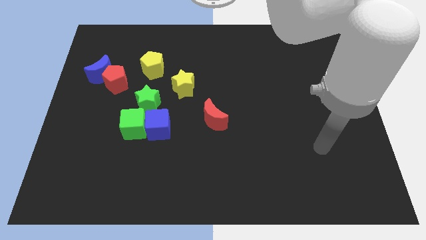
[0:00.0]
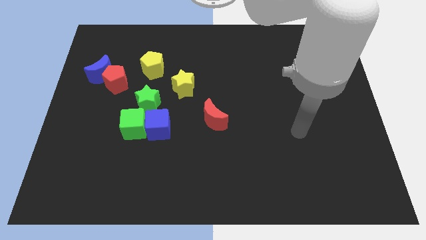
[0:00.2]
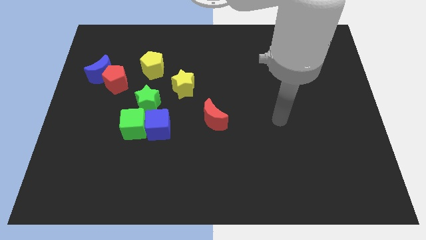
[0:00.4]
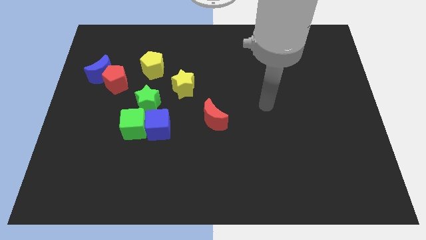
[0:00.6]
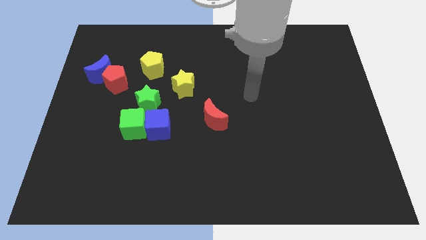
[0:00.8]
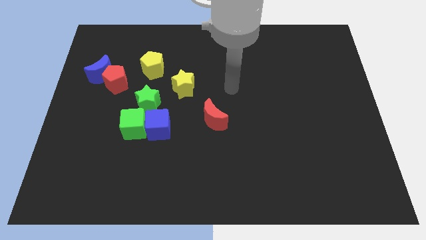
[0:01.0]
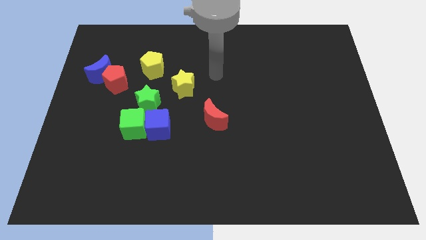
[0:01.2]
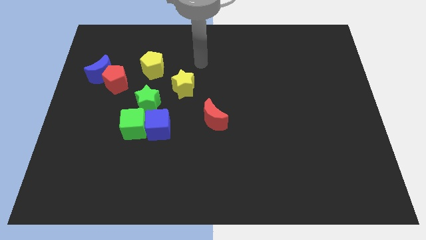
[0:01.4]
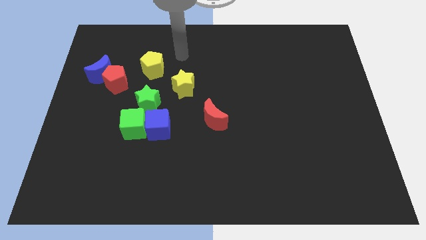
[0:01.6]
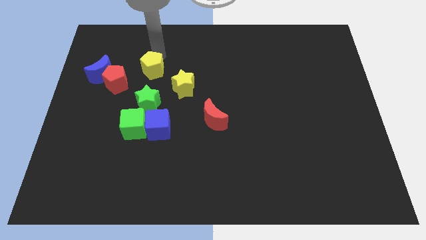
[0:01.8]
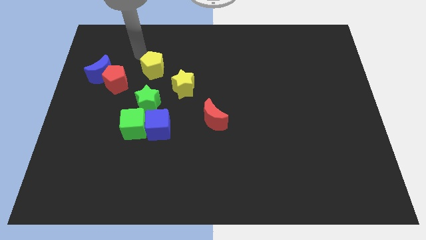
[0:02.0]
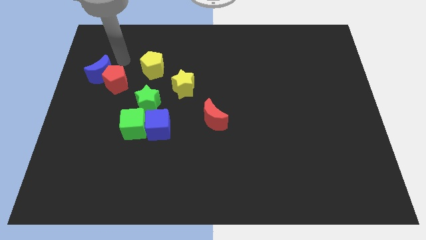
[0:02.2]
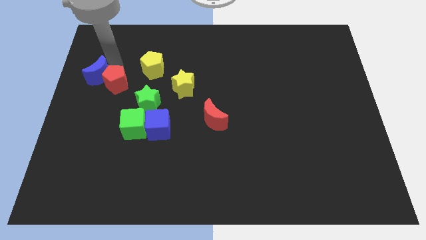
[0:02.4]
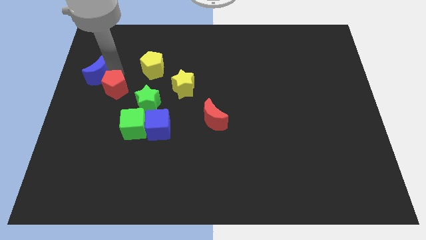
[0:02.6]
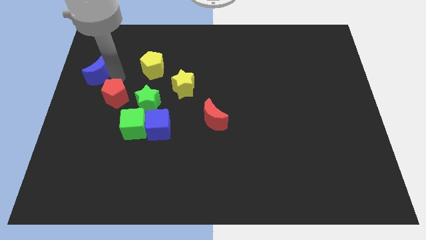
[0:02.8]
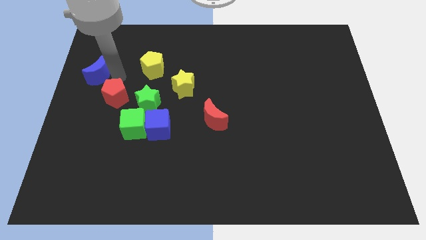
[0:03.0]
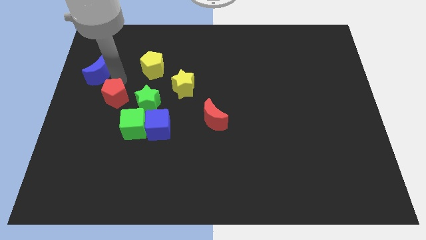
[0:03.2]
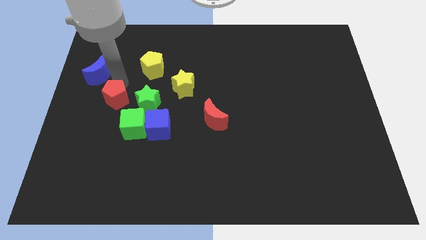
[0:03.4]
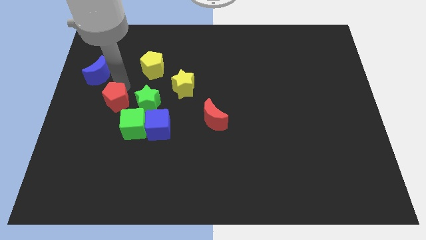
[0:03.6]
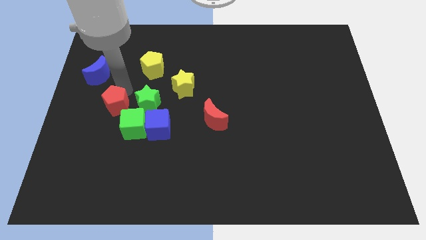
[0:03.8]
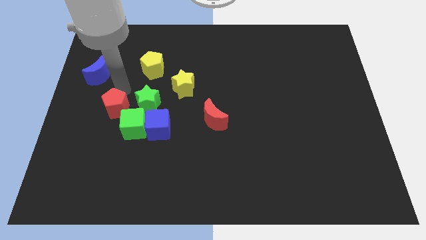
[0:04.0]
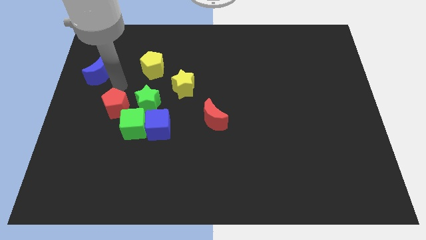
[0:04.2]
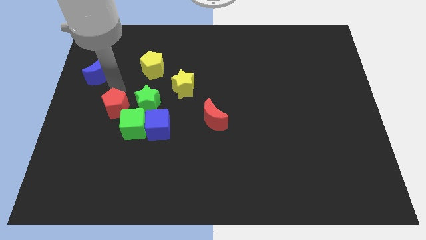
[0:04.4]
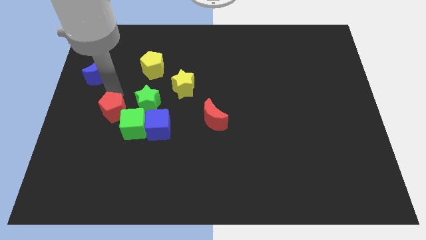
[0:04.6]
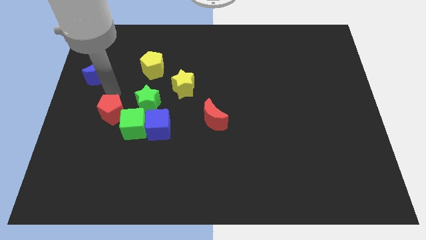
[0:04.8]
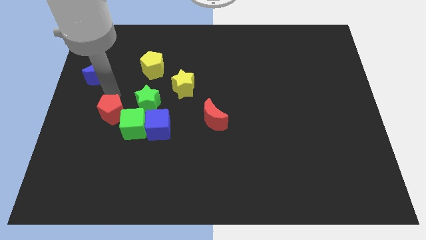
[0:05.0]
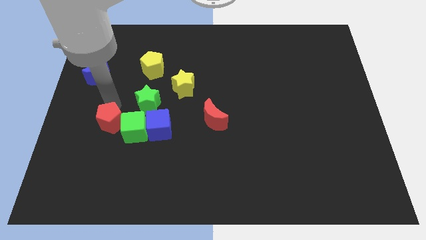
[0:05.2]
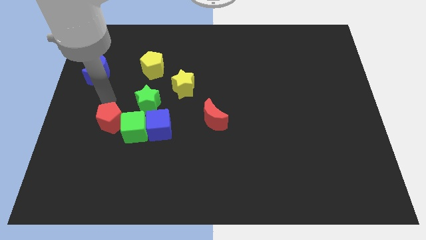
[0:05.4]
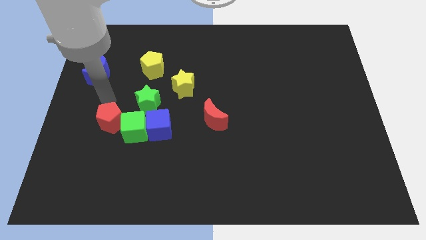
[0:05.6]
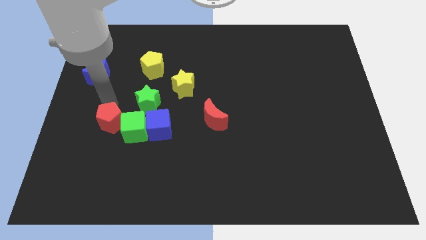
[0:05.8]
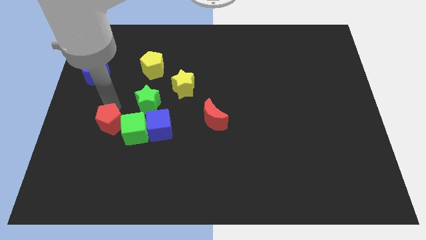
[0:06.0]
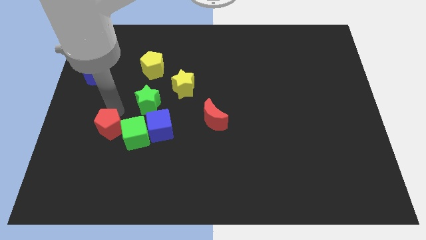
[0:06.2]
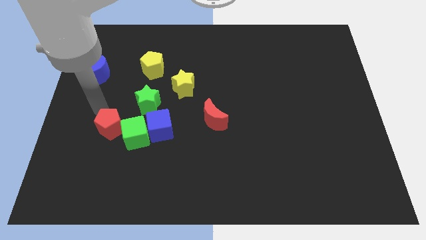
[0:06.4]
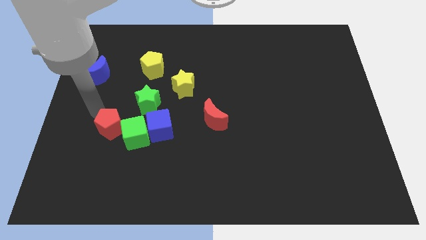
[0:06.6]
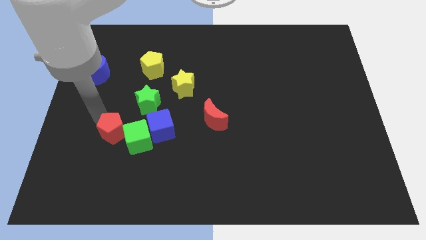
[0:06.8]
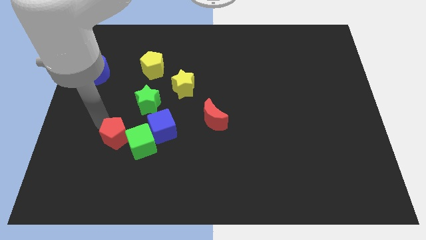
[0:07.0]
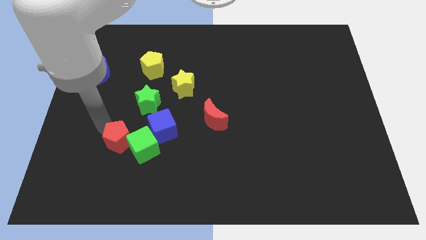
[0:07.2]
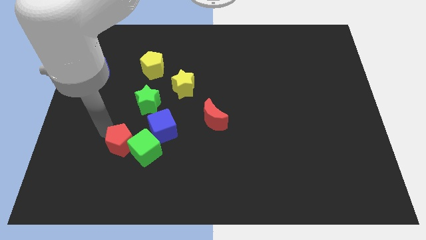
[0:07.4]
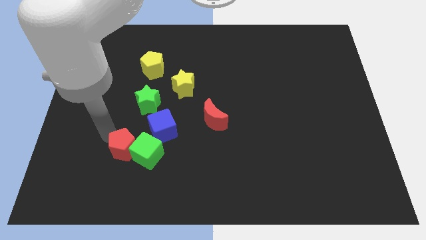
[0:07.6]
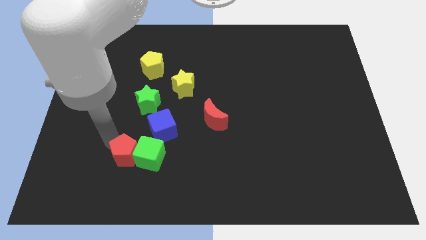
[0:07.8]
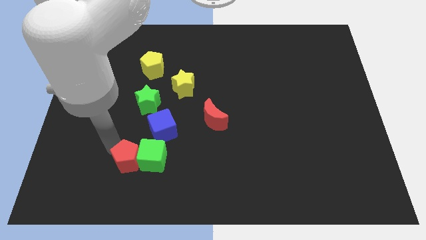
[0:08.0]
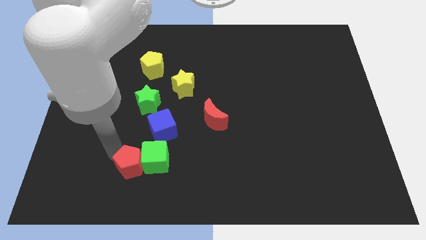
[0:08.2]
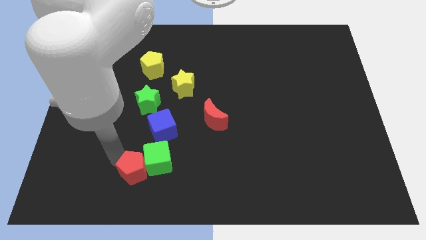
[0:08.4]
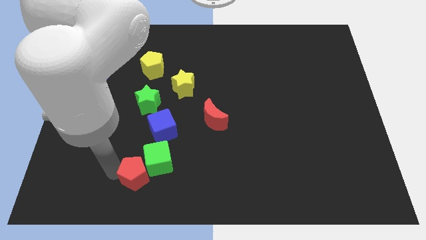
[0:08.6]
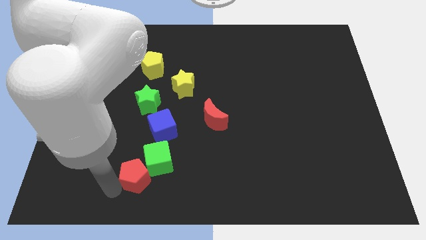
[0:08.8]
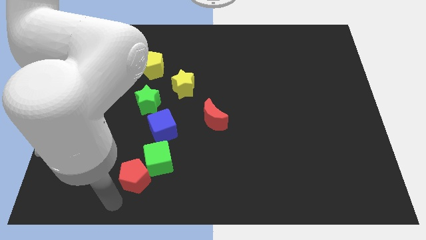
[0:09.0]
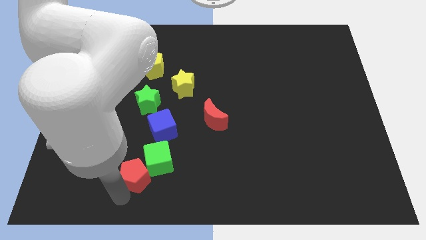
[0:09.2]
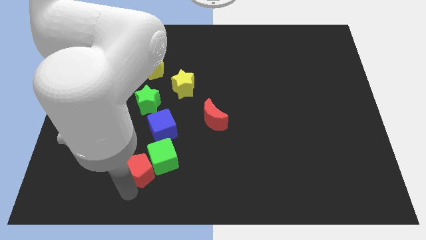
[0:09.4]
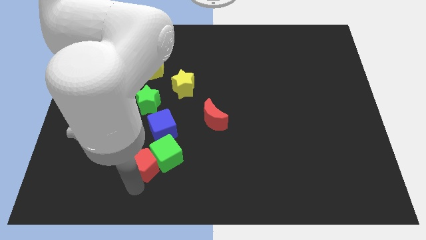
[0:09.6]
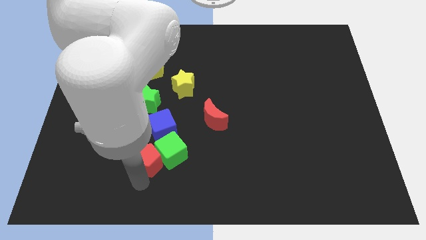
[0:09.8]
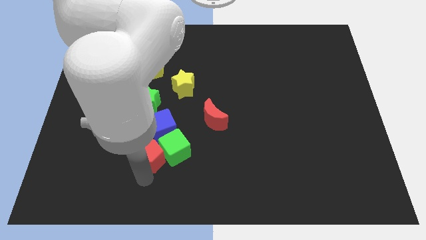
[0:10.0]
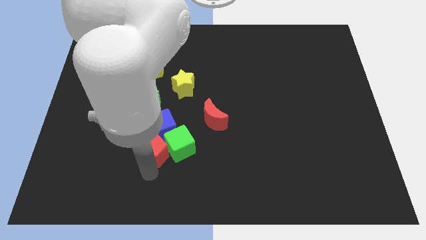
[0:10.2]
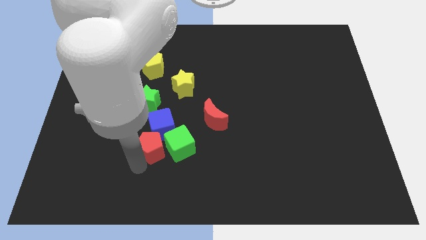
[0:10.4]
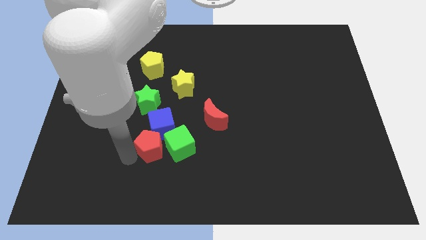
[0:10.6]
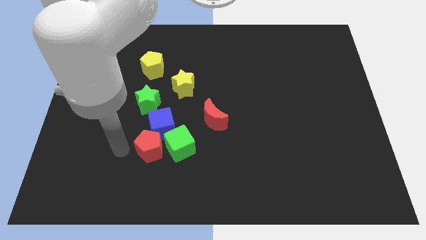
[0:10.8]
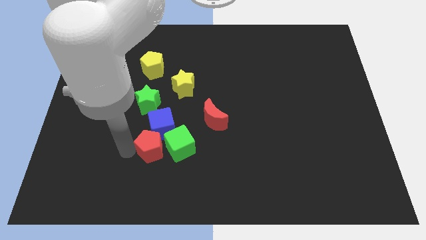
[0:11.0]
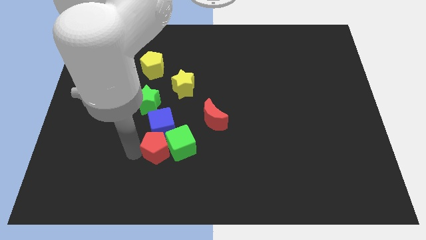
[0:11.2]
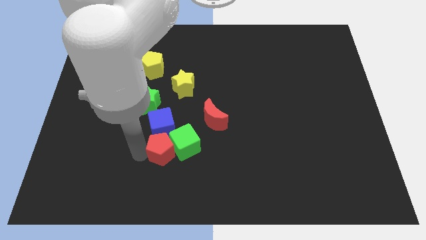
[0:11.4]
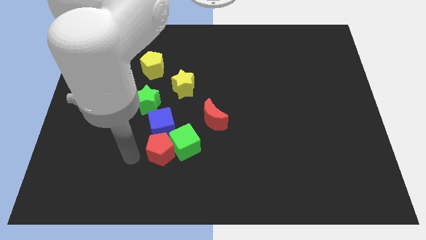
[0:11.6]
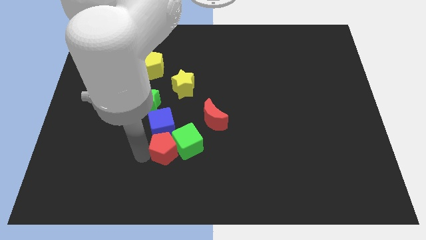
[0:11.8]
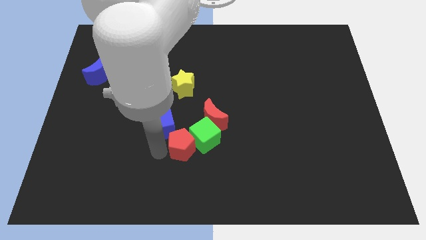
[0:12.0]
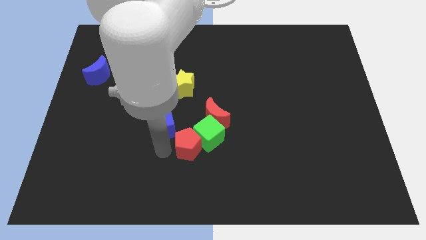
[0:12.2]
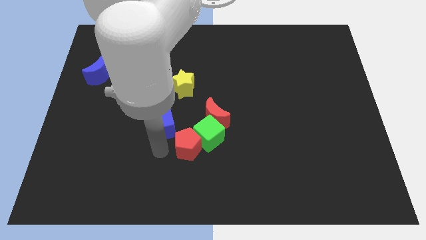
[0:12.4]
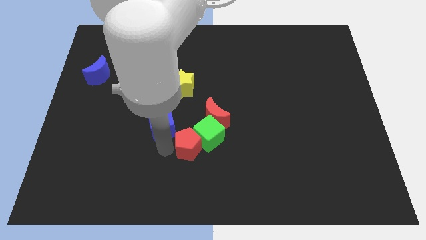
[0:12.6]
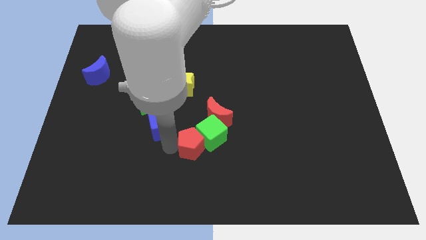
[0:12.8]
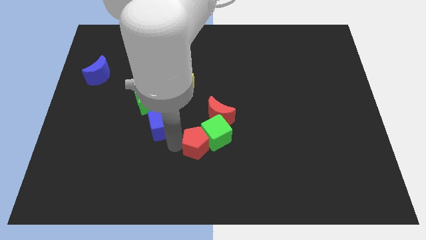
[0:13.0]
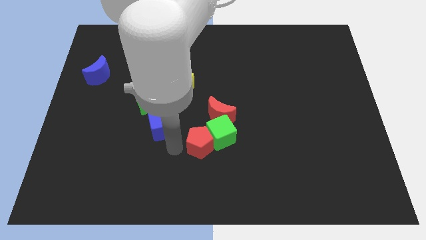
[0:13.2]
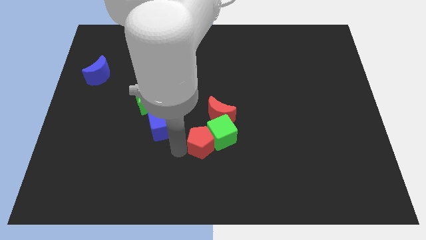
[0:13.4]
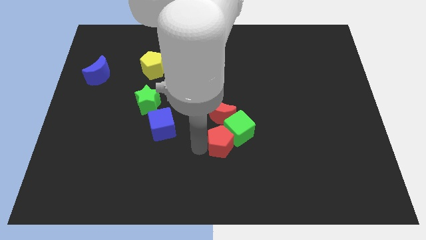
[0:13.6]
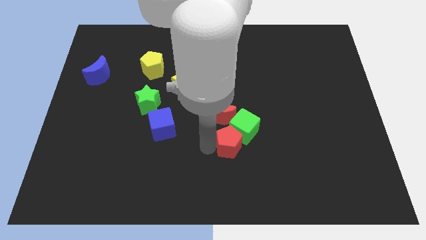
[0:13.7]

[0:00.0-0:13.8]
push the red pentagon to the bottom right side of the red moon

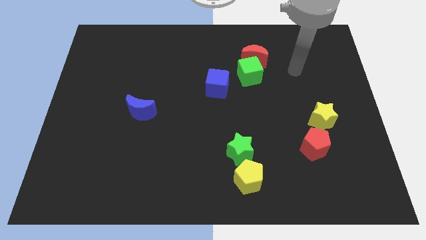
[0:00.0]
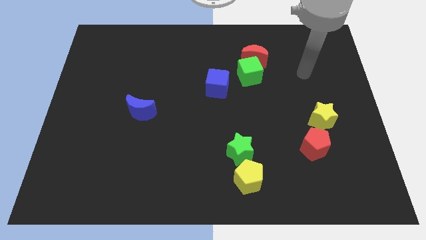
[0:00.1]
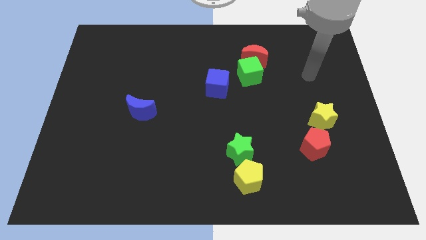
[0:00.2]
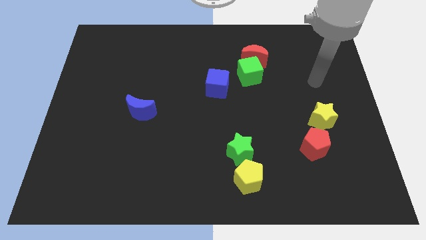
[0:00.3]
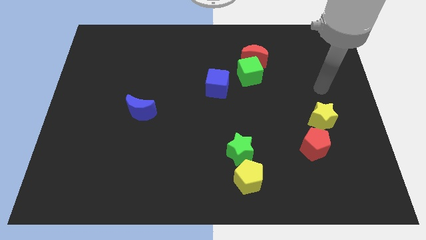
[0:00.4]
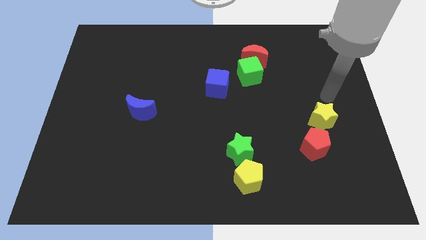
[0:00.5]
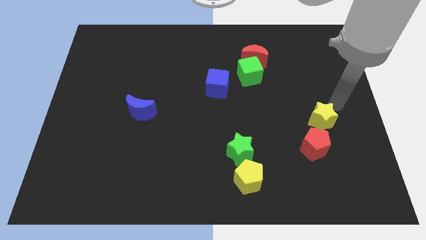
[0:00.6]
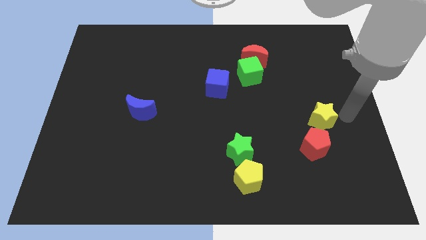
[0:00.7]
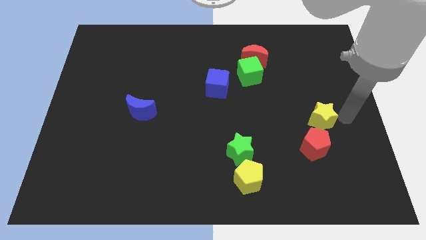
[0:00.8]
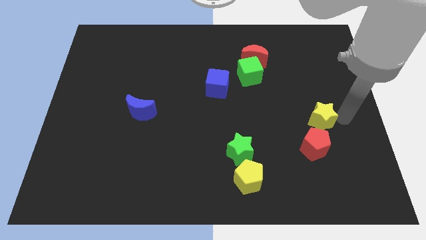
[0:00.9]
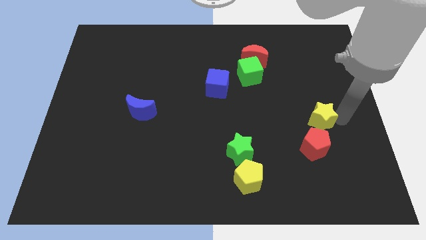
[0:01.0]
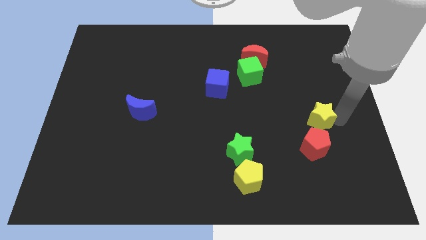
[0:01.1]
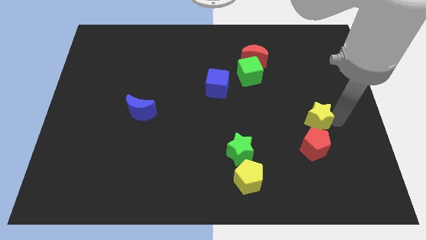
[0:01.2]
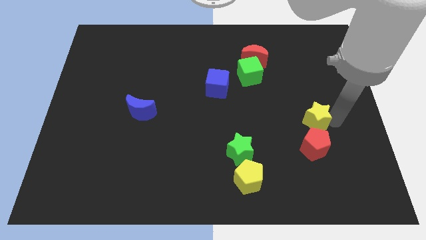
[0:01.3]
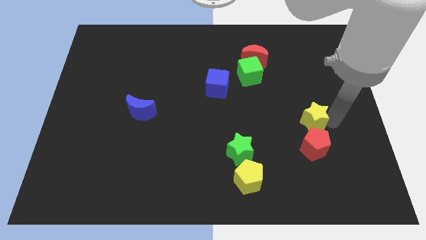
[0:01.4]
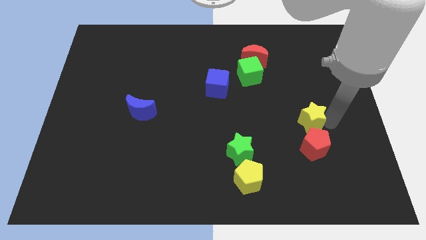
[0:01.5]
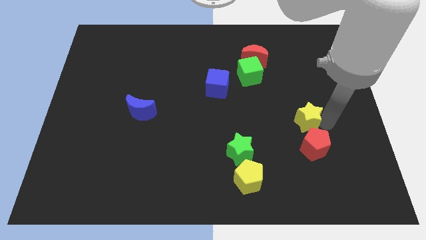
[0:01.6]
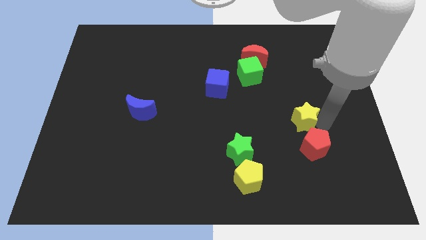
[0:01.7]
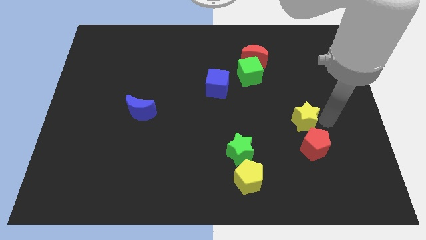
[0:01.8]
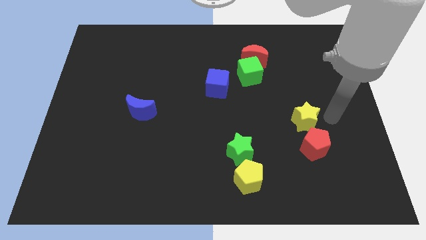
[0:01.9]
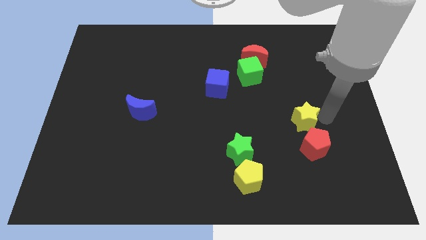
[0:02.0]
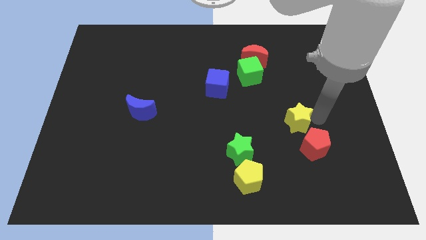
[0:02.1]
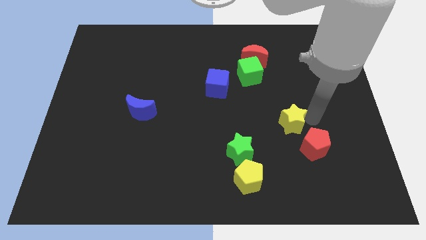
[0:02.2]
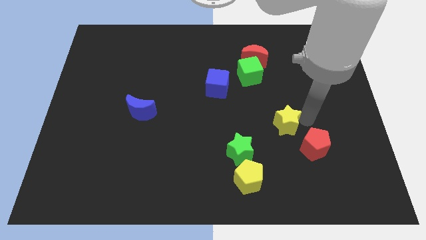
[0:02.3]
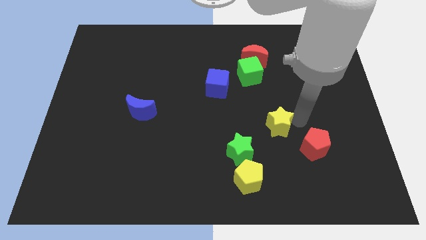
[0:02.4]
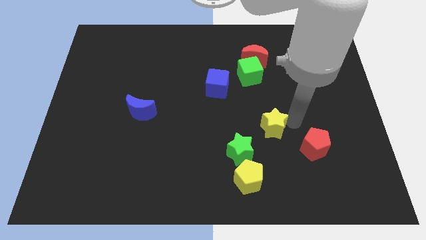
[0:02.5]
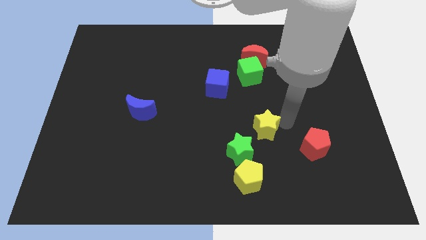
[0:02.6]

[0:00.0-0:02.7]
push the yellow star above the yellow pentagon
